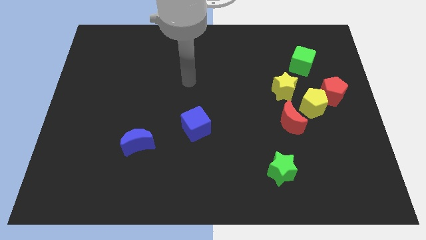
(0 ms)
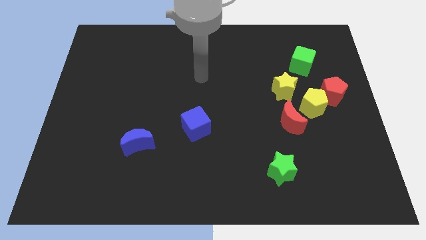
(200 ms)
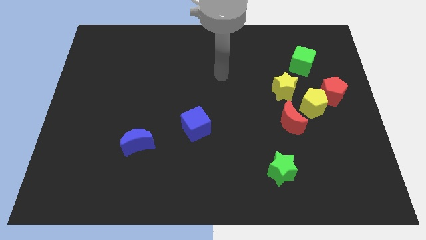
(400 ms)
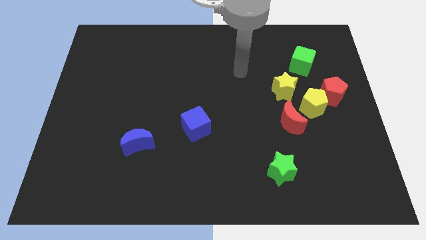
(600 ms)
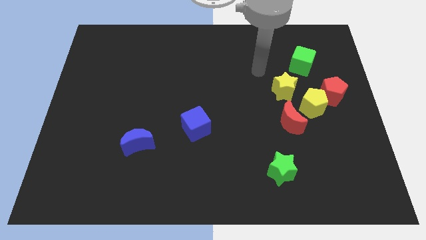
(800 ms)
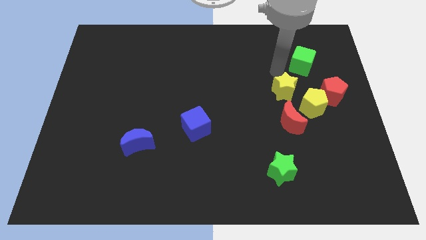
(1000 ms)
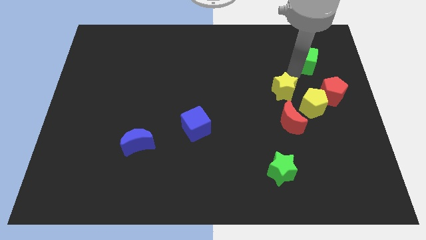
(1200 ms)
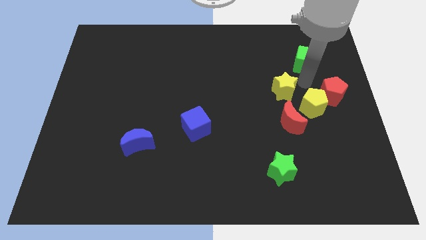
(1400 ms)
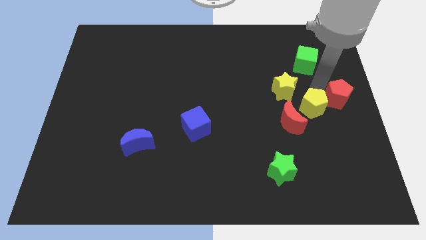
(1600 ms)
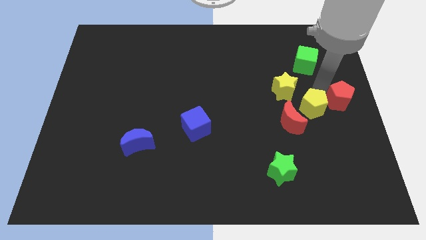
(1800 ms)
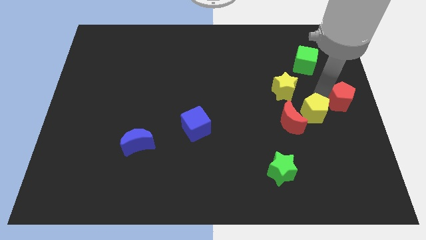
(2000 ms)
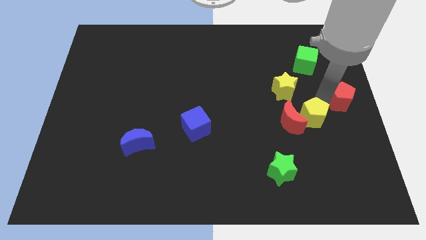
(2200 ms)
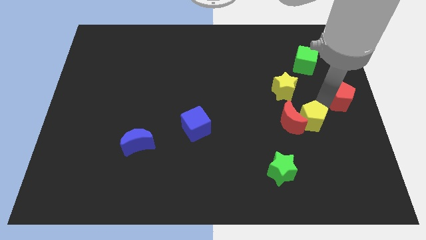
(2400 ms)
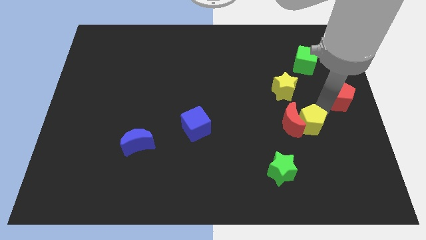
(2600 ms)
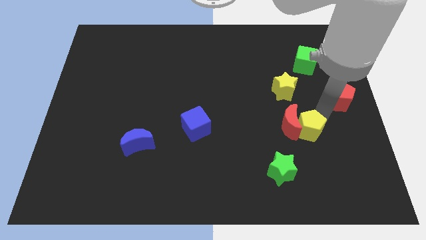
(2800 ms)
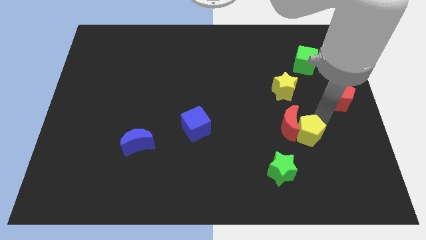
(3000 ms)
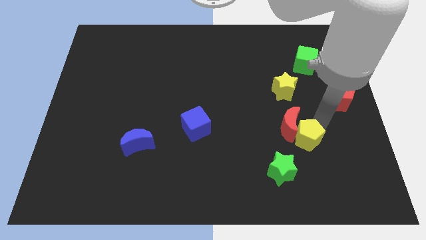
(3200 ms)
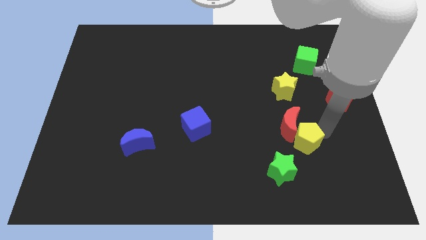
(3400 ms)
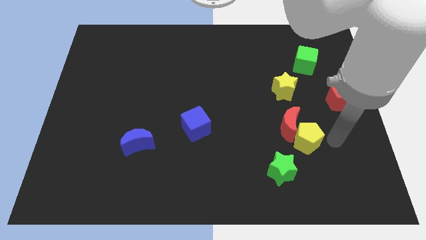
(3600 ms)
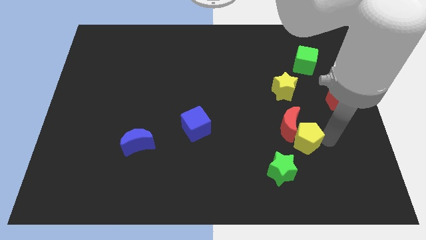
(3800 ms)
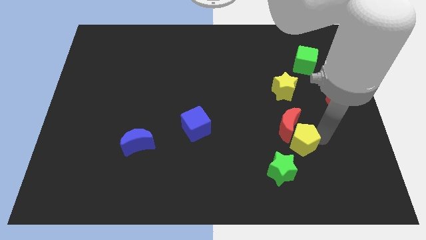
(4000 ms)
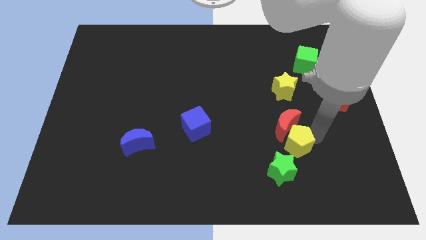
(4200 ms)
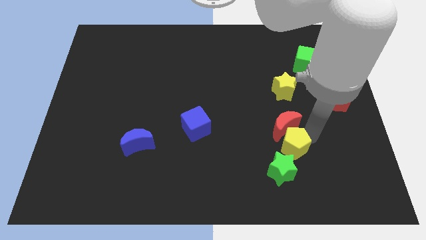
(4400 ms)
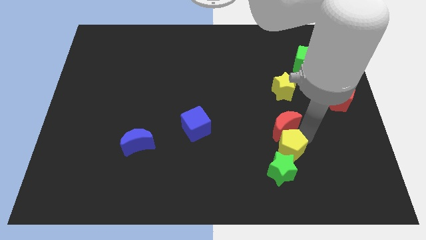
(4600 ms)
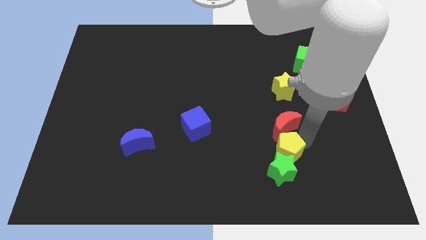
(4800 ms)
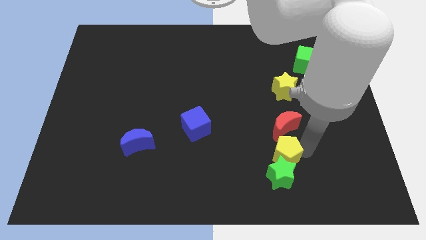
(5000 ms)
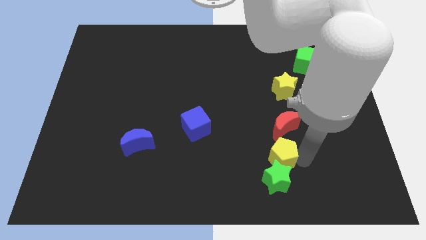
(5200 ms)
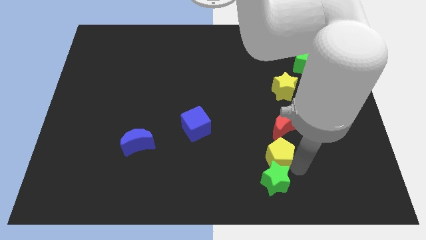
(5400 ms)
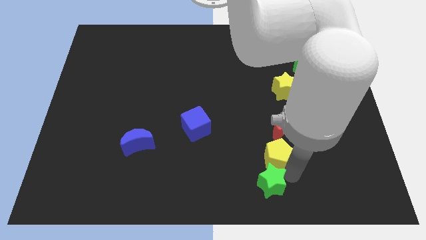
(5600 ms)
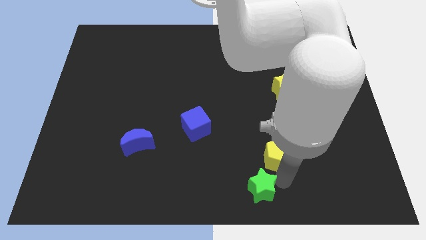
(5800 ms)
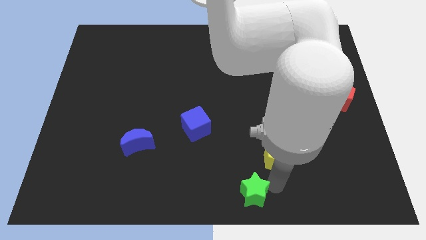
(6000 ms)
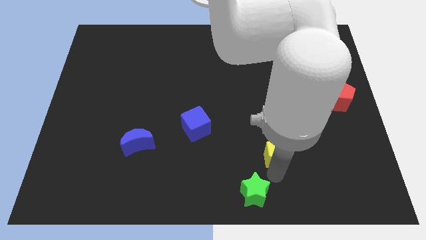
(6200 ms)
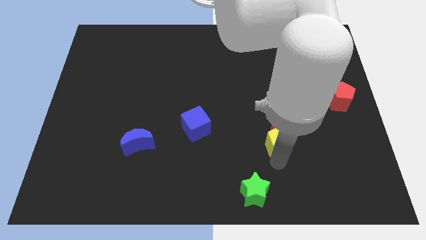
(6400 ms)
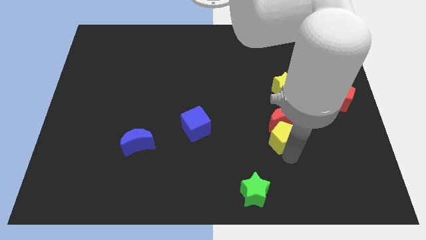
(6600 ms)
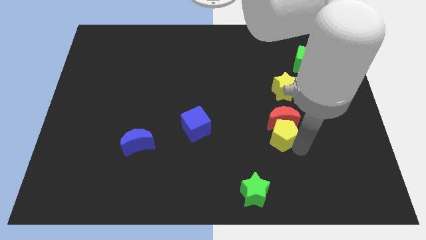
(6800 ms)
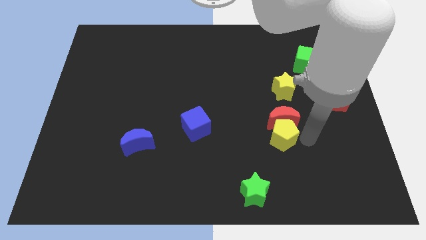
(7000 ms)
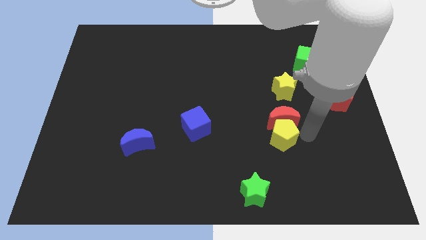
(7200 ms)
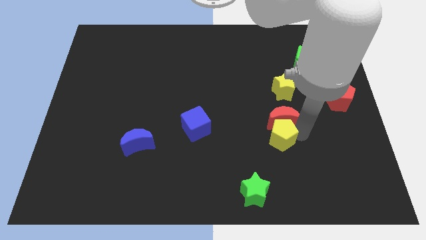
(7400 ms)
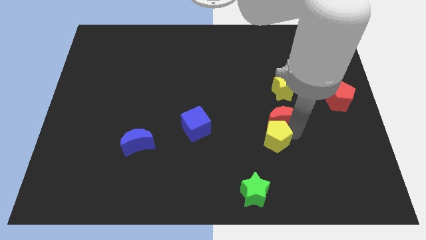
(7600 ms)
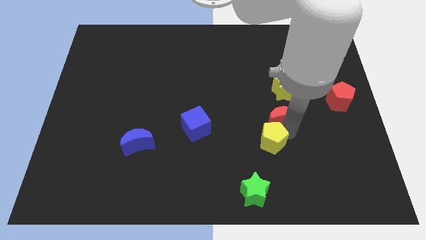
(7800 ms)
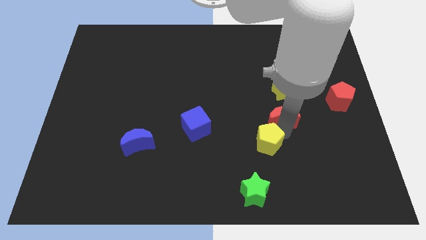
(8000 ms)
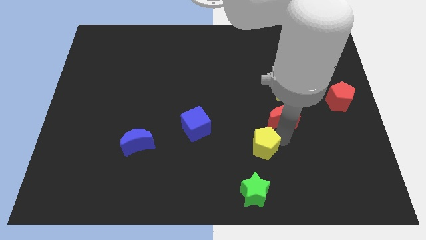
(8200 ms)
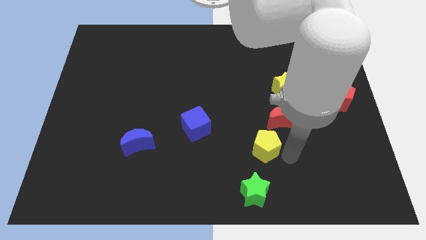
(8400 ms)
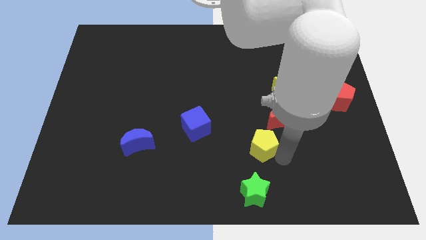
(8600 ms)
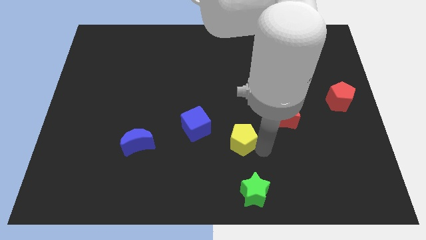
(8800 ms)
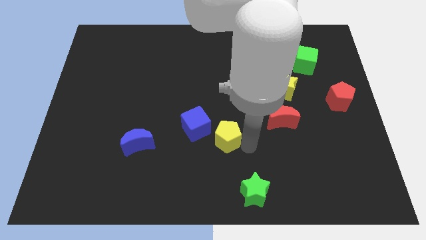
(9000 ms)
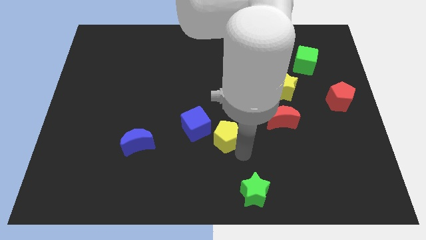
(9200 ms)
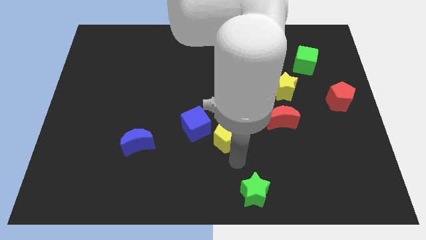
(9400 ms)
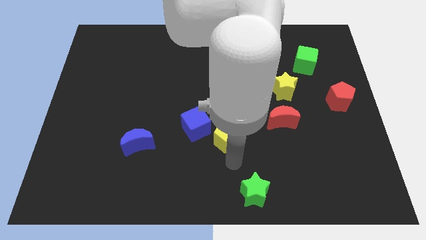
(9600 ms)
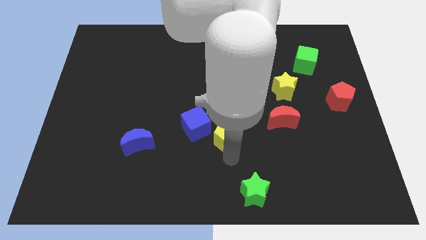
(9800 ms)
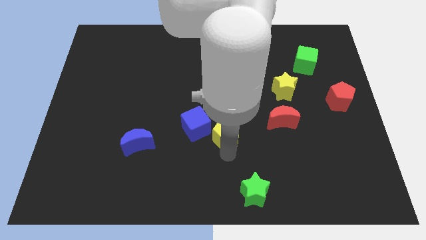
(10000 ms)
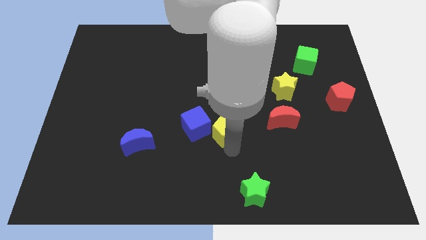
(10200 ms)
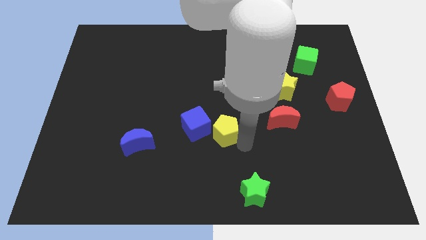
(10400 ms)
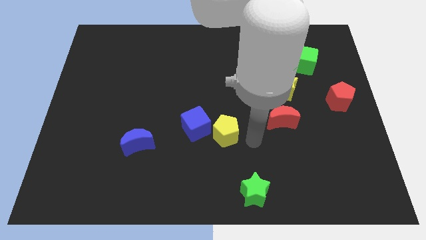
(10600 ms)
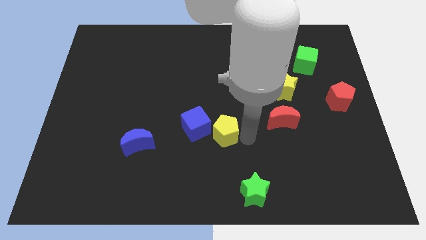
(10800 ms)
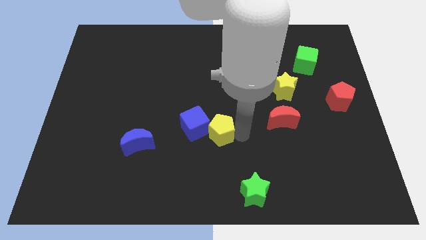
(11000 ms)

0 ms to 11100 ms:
slide the yellow pentagon to the blue cube

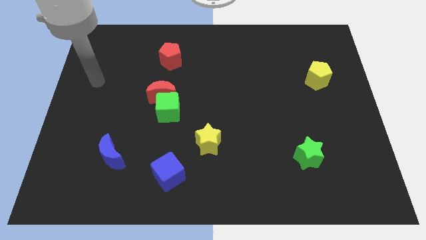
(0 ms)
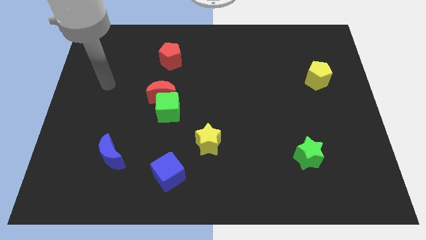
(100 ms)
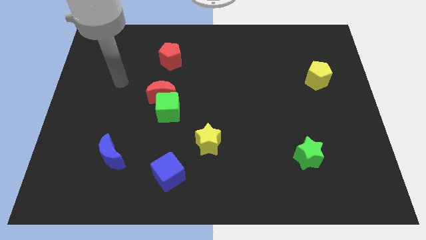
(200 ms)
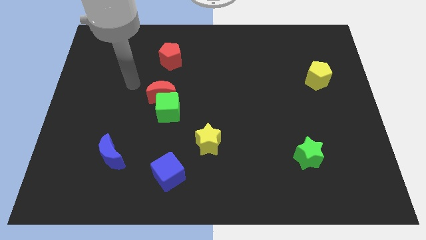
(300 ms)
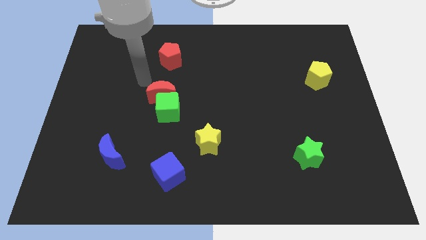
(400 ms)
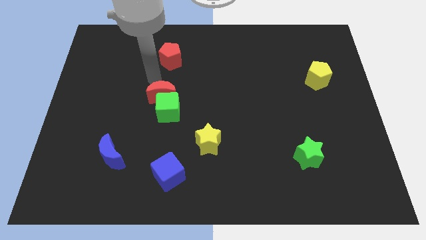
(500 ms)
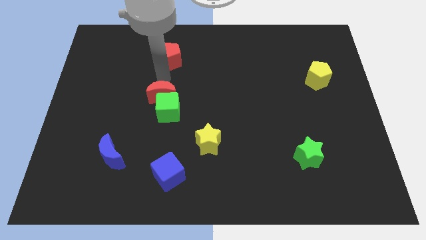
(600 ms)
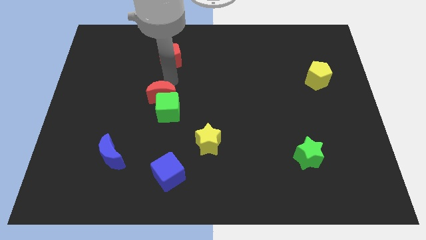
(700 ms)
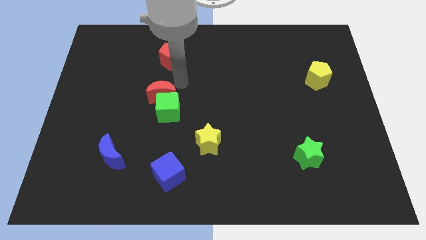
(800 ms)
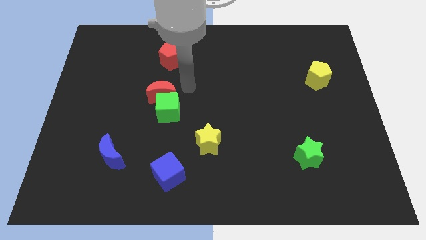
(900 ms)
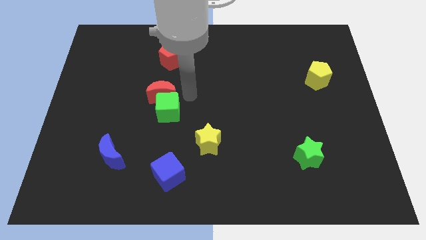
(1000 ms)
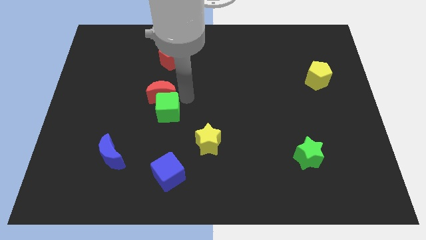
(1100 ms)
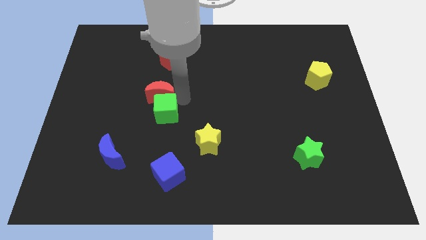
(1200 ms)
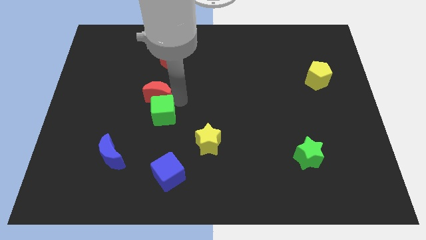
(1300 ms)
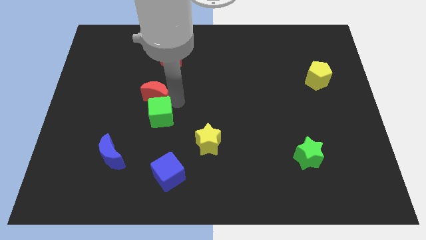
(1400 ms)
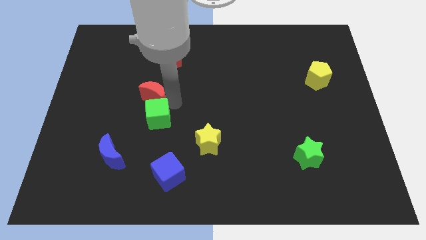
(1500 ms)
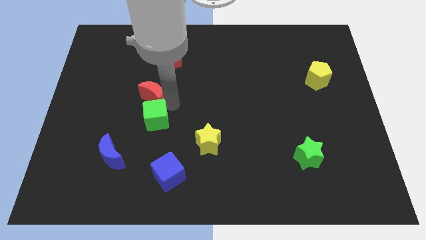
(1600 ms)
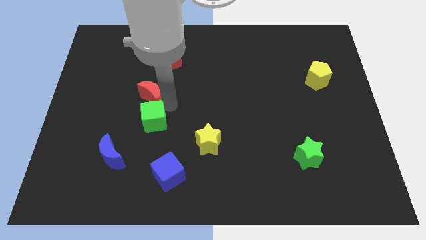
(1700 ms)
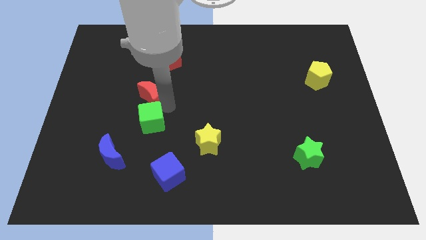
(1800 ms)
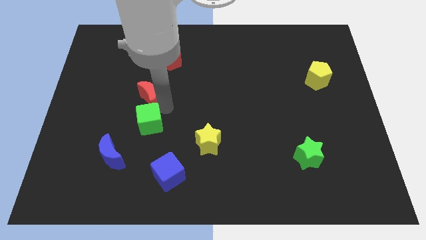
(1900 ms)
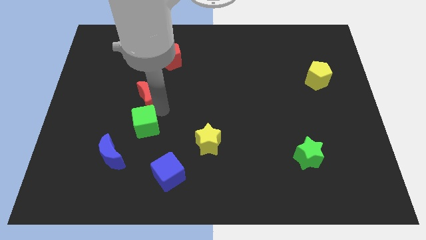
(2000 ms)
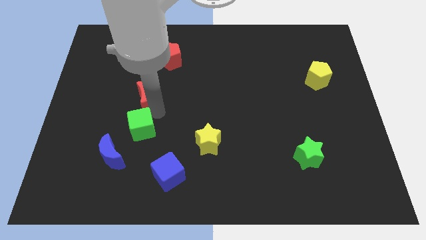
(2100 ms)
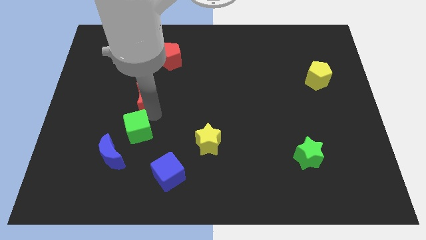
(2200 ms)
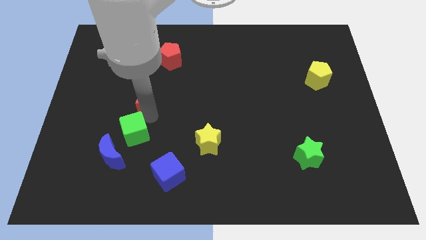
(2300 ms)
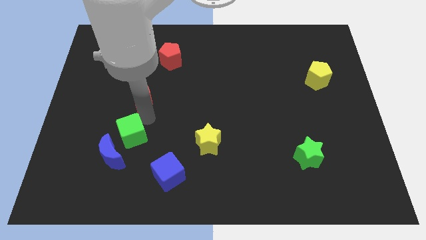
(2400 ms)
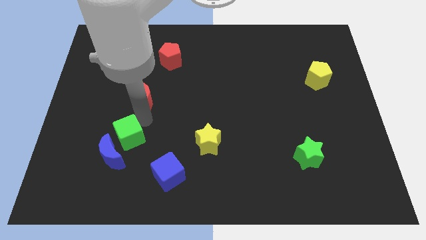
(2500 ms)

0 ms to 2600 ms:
put the green cube to the blue moon
